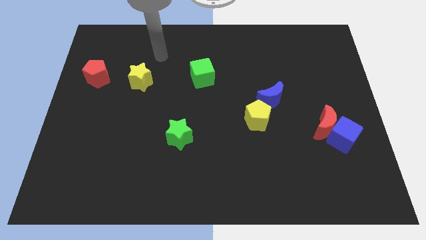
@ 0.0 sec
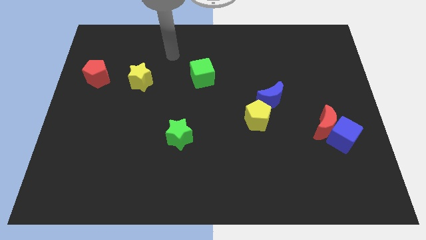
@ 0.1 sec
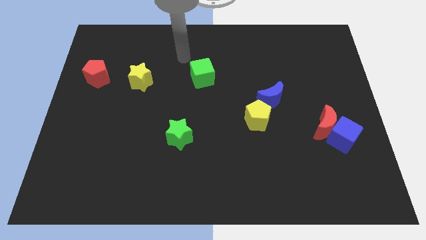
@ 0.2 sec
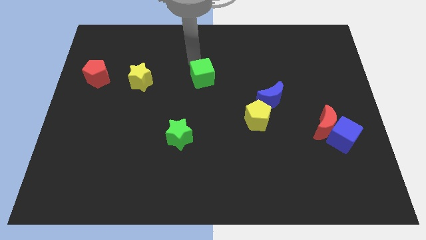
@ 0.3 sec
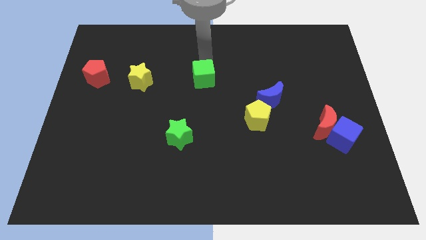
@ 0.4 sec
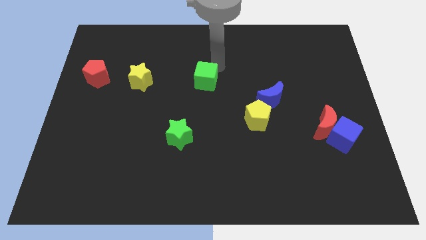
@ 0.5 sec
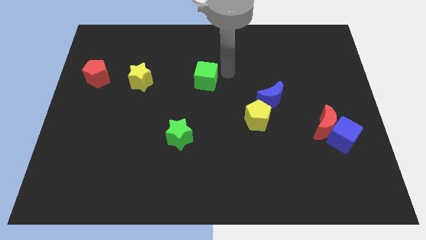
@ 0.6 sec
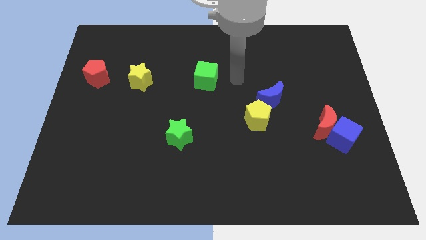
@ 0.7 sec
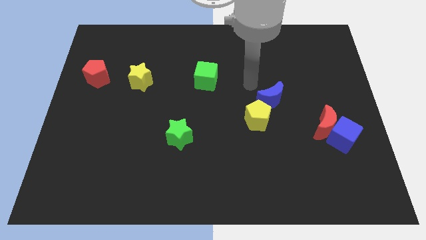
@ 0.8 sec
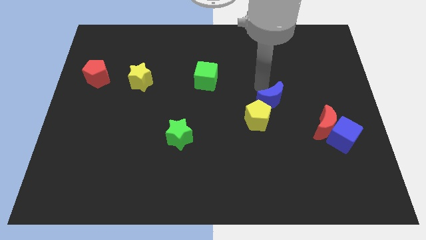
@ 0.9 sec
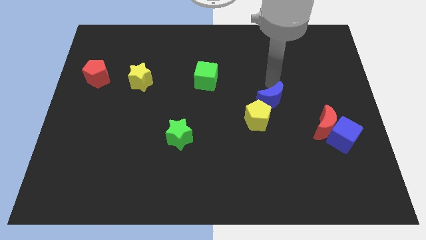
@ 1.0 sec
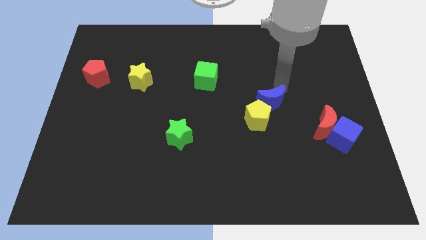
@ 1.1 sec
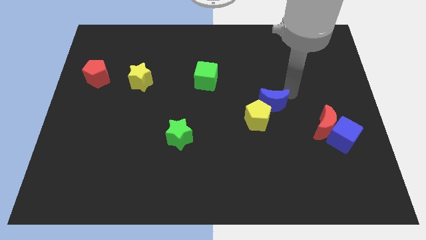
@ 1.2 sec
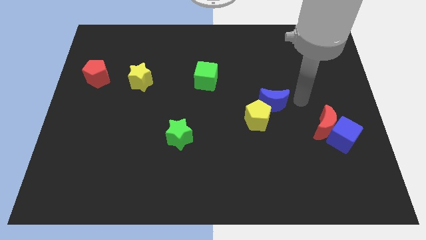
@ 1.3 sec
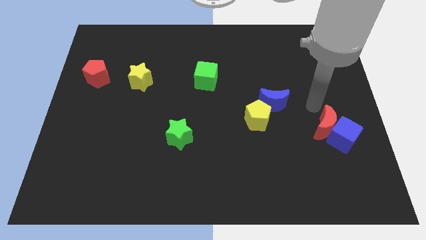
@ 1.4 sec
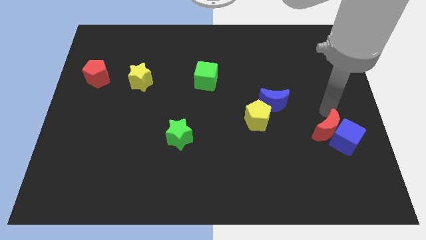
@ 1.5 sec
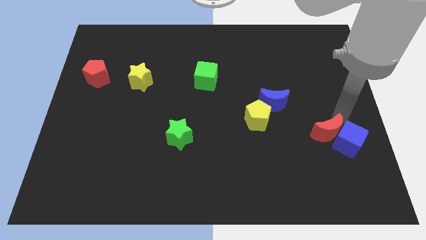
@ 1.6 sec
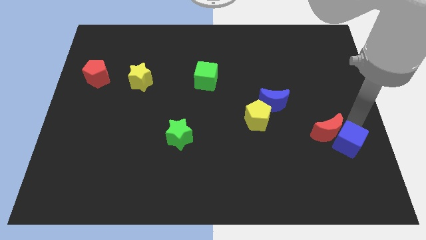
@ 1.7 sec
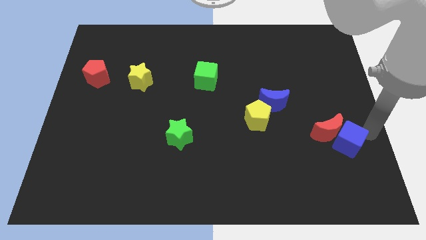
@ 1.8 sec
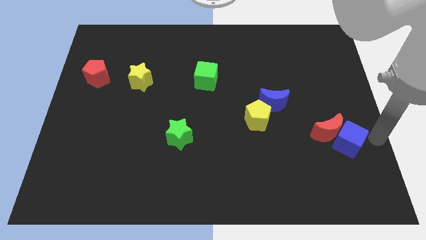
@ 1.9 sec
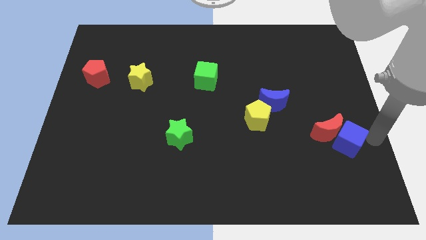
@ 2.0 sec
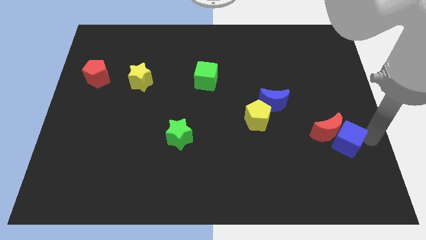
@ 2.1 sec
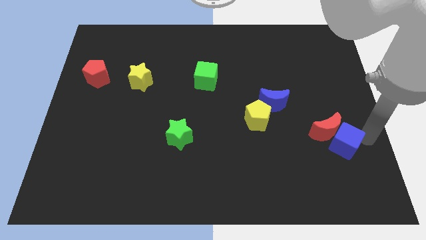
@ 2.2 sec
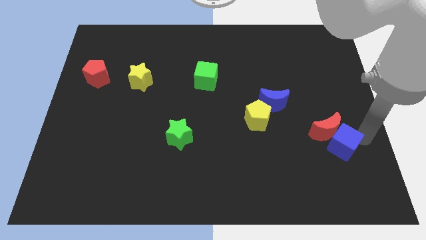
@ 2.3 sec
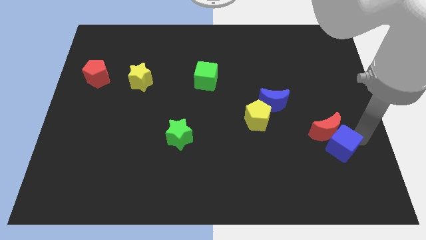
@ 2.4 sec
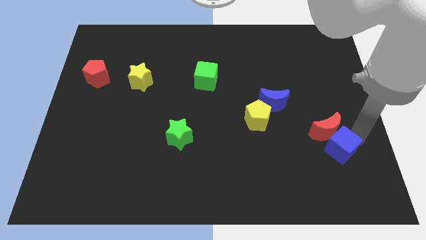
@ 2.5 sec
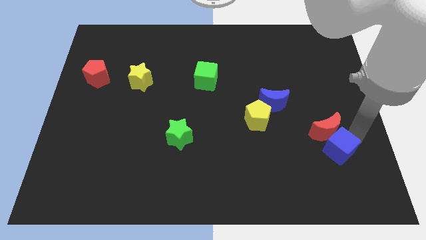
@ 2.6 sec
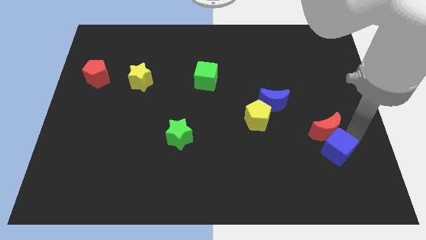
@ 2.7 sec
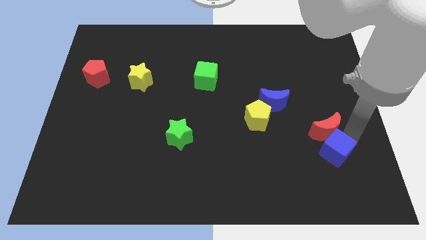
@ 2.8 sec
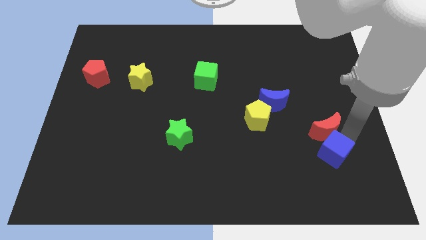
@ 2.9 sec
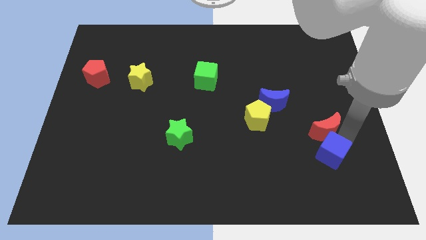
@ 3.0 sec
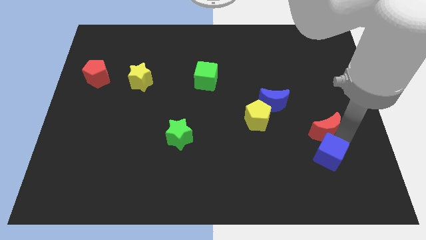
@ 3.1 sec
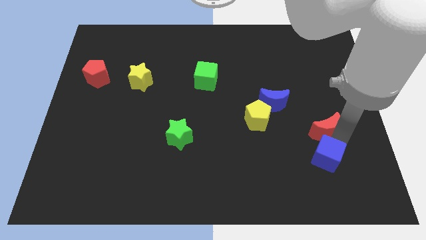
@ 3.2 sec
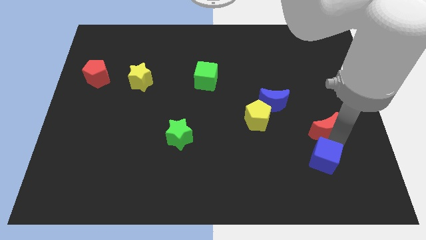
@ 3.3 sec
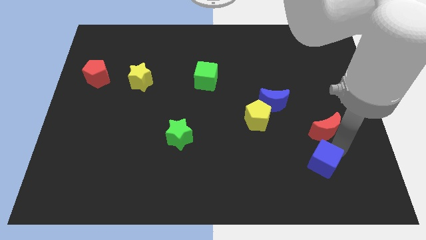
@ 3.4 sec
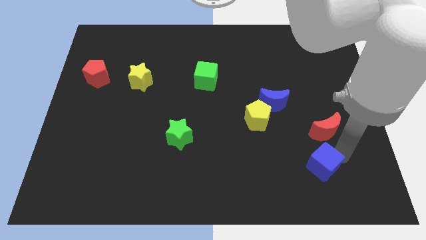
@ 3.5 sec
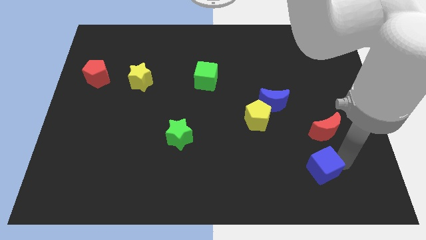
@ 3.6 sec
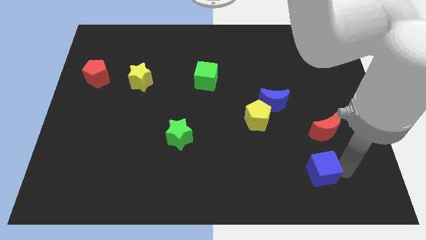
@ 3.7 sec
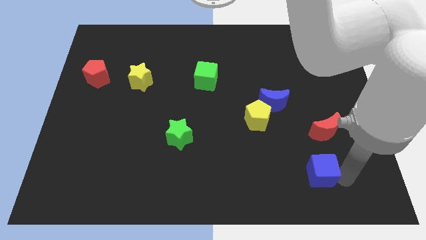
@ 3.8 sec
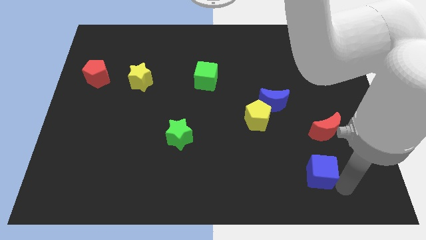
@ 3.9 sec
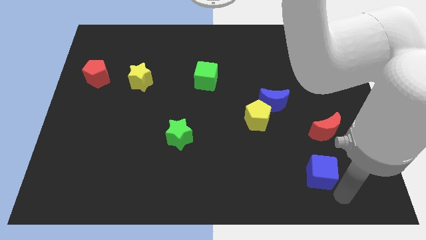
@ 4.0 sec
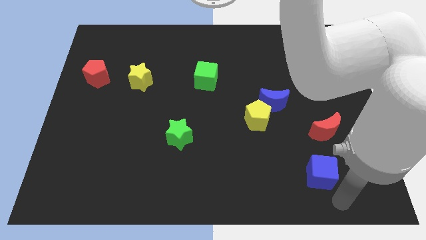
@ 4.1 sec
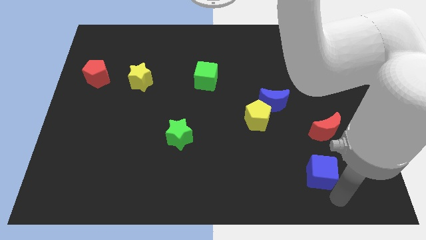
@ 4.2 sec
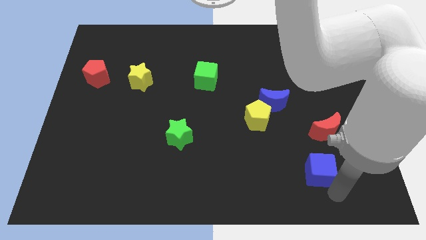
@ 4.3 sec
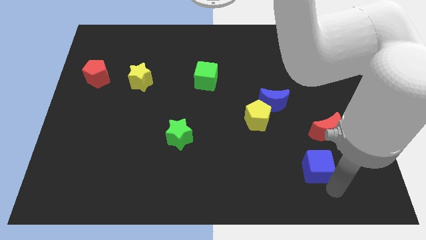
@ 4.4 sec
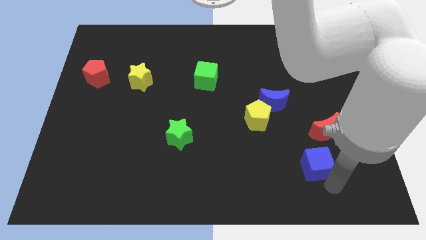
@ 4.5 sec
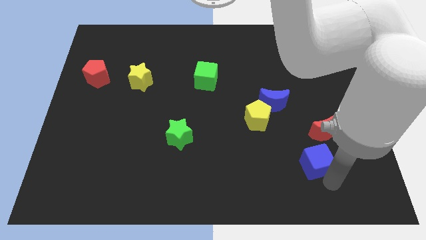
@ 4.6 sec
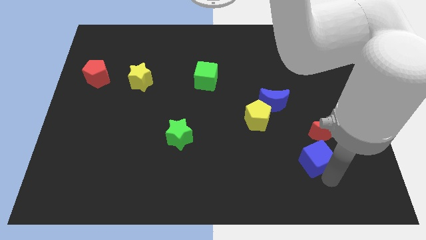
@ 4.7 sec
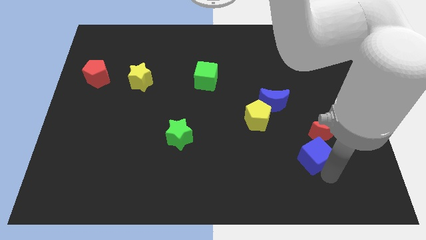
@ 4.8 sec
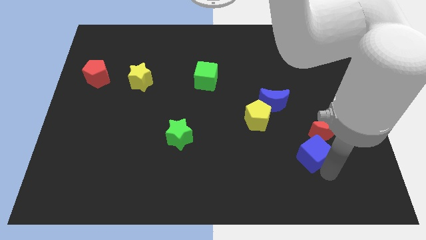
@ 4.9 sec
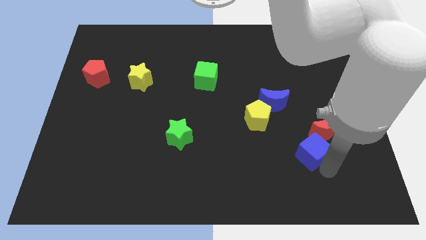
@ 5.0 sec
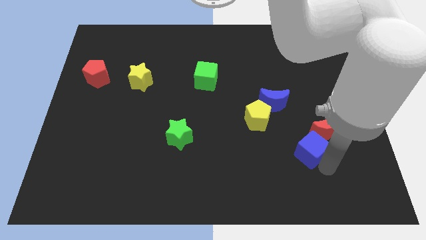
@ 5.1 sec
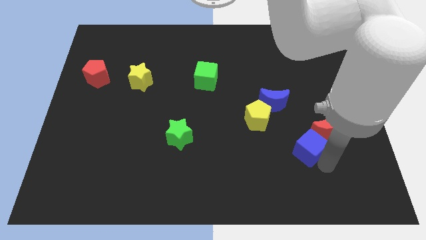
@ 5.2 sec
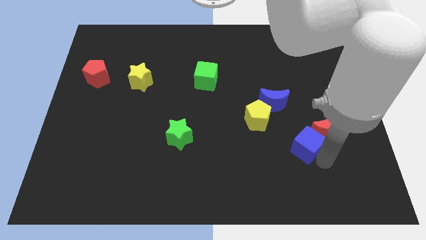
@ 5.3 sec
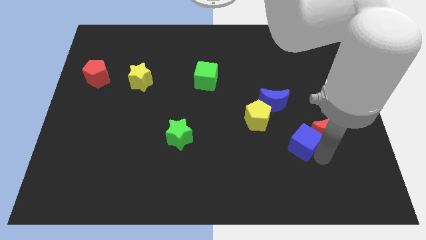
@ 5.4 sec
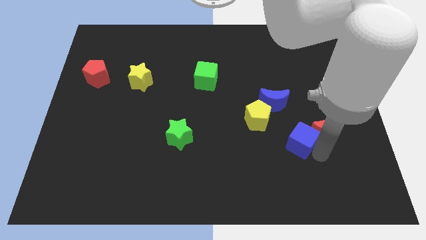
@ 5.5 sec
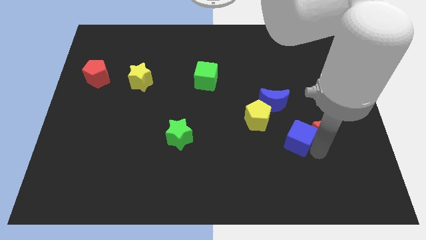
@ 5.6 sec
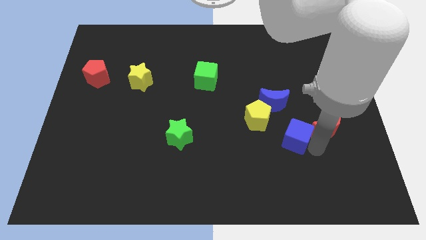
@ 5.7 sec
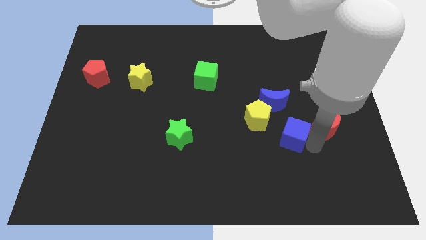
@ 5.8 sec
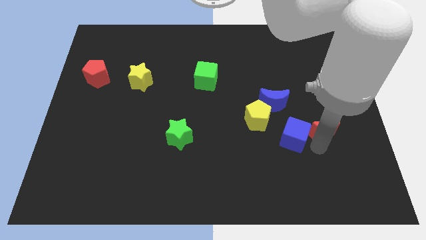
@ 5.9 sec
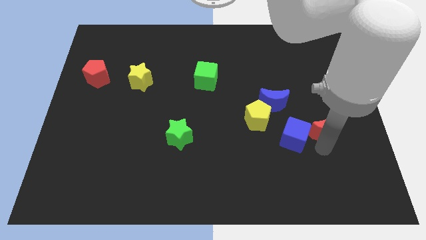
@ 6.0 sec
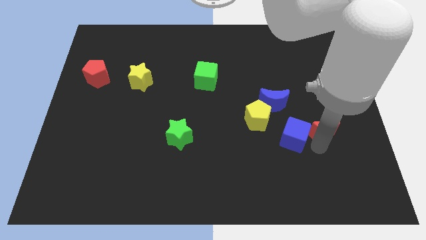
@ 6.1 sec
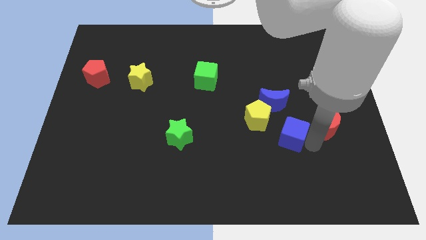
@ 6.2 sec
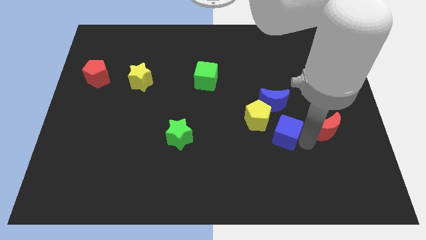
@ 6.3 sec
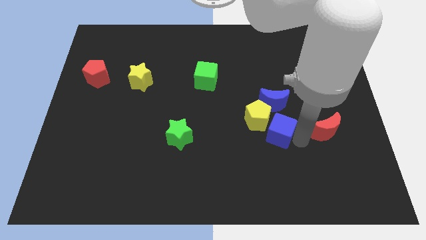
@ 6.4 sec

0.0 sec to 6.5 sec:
put the blue cube next to the yellow pentagon
